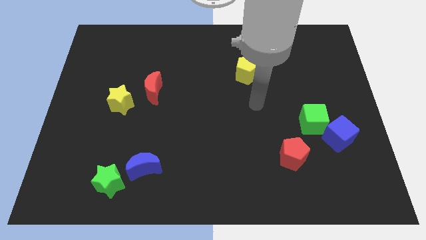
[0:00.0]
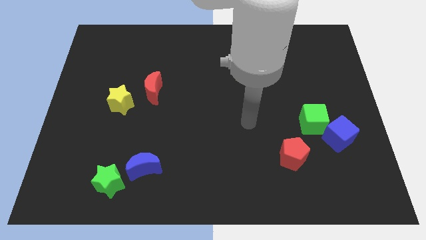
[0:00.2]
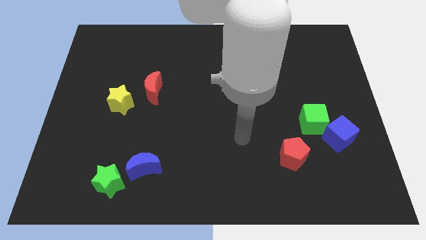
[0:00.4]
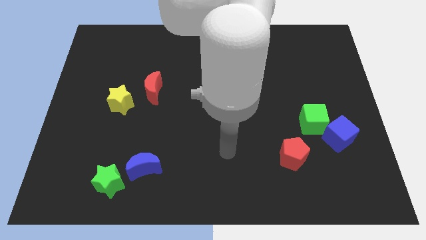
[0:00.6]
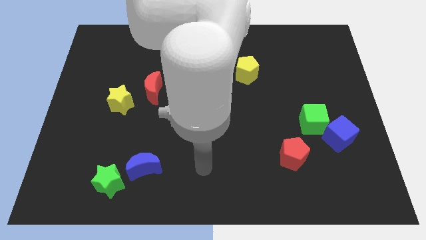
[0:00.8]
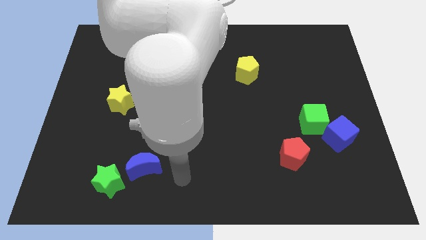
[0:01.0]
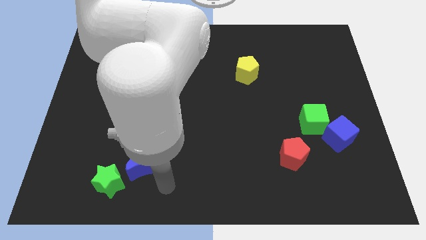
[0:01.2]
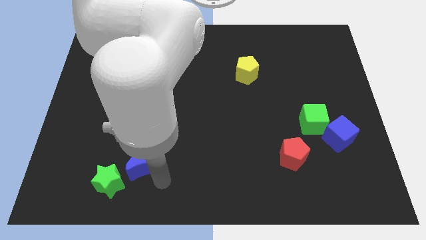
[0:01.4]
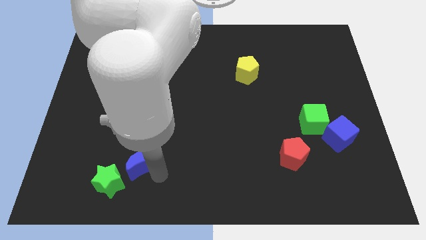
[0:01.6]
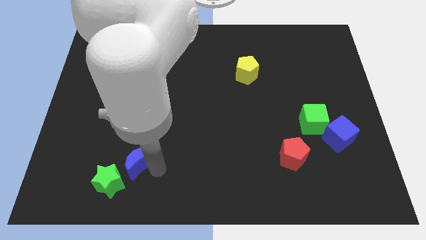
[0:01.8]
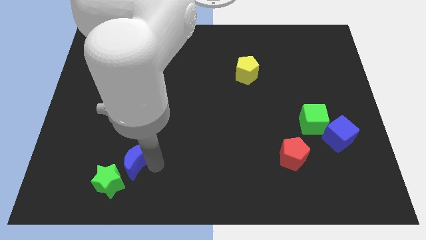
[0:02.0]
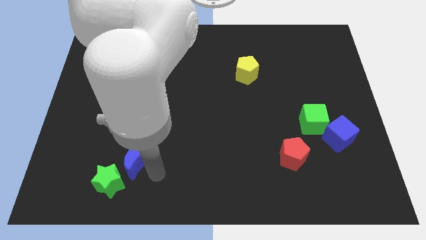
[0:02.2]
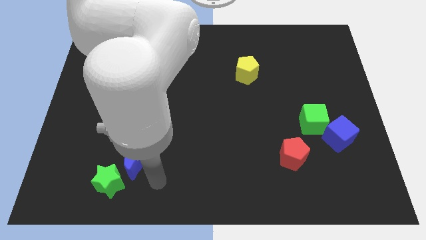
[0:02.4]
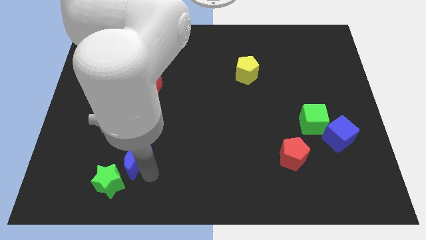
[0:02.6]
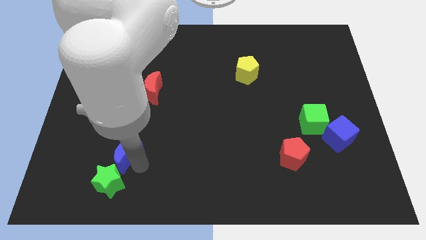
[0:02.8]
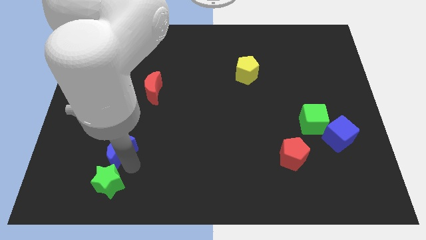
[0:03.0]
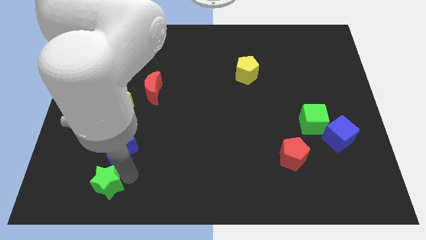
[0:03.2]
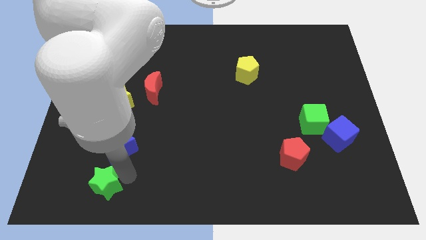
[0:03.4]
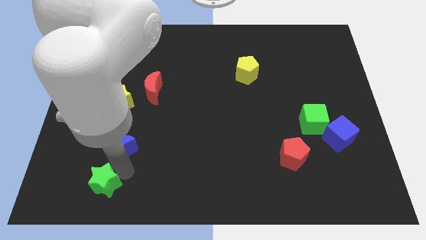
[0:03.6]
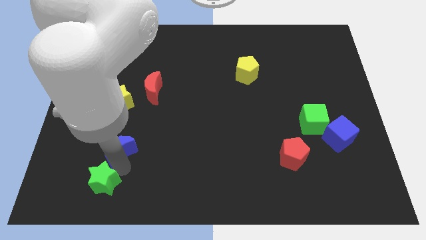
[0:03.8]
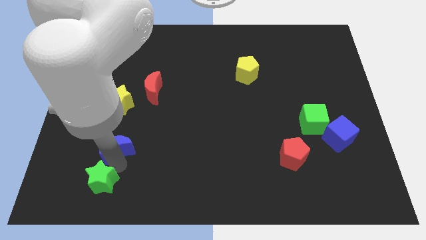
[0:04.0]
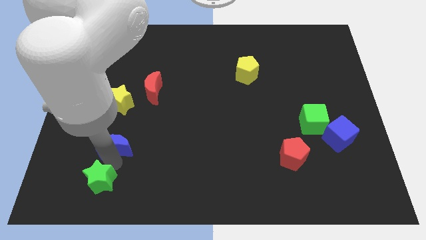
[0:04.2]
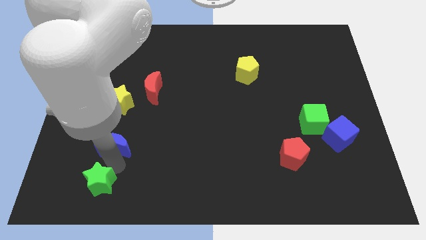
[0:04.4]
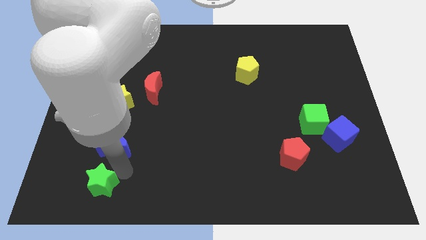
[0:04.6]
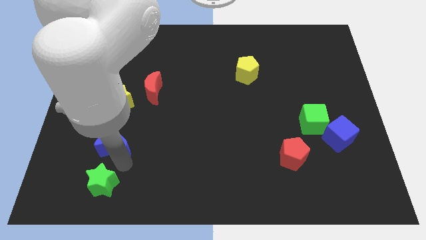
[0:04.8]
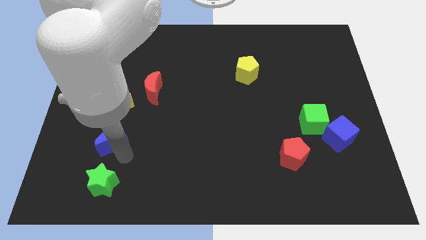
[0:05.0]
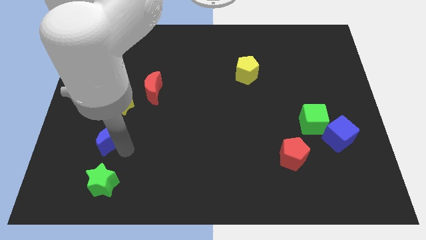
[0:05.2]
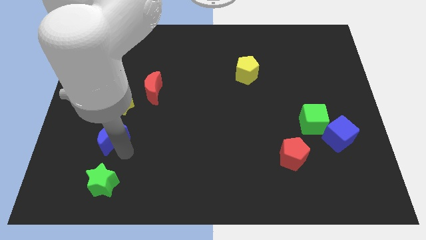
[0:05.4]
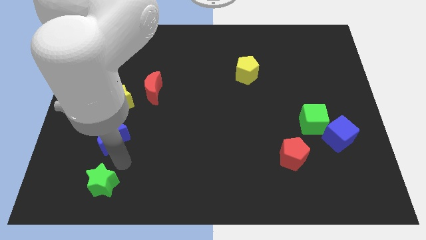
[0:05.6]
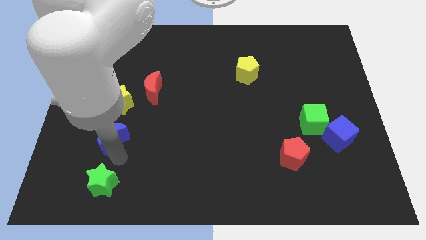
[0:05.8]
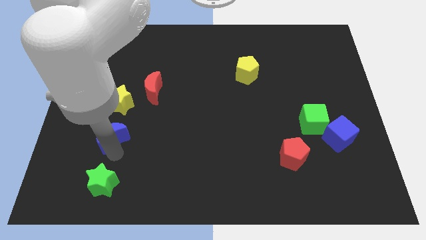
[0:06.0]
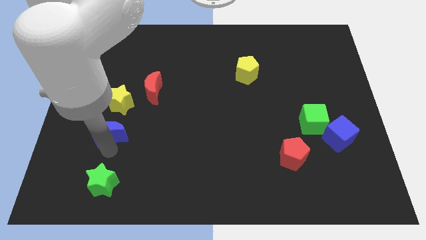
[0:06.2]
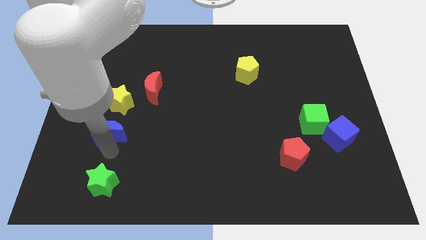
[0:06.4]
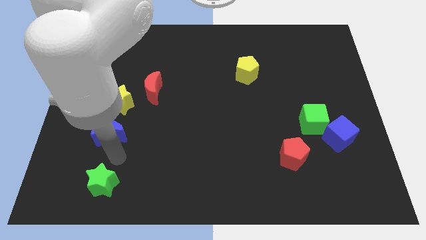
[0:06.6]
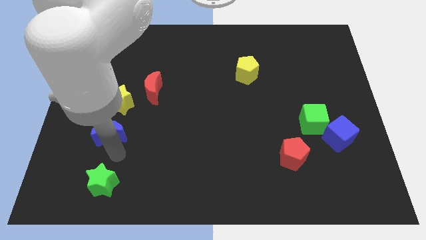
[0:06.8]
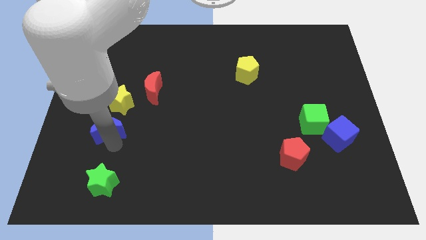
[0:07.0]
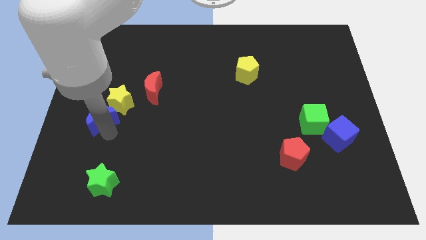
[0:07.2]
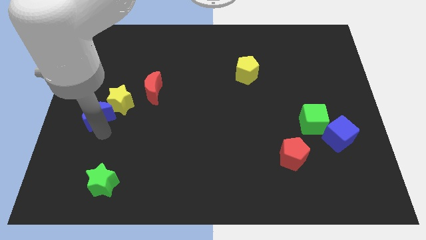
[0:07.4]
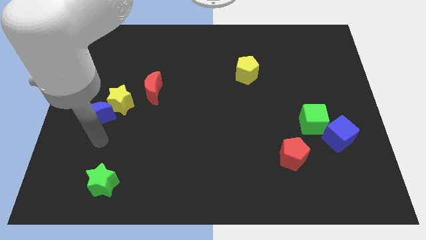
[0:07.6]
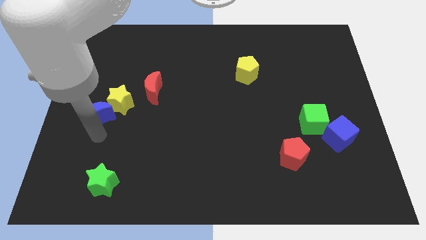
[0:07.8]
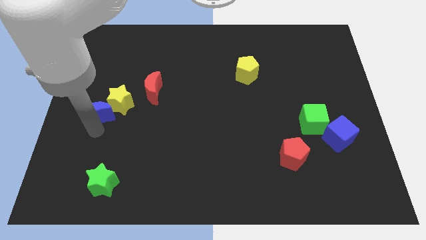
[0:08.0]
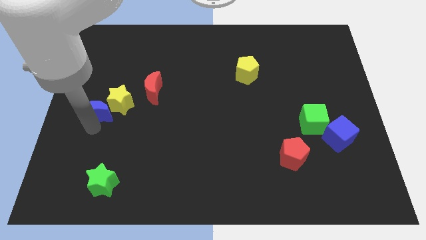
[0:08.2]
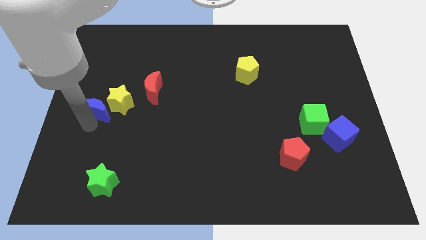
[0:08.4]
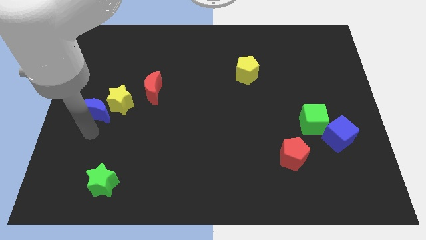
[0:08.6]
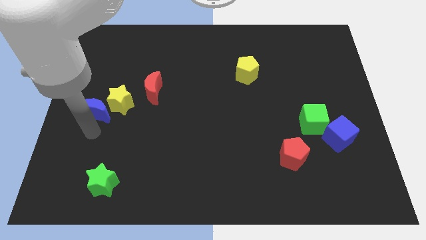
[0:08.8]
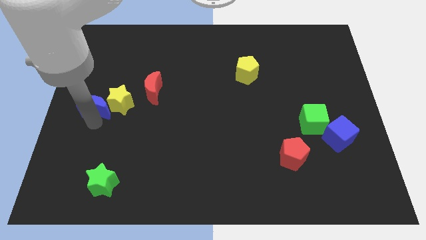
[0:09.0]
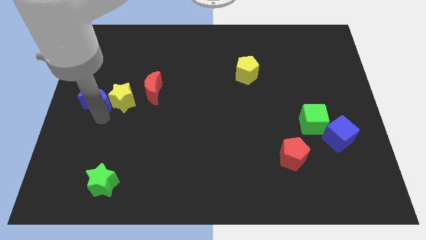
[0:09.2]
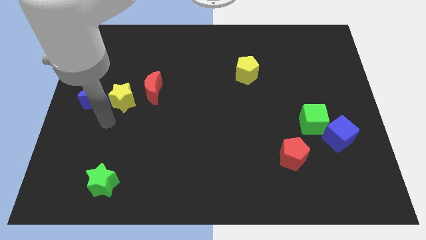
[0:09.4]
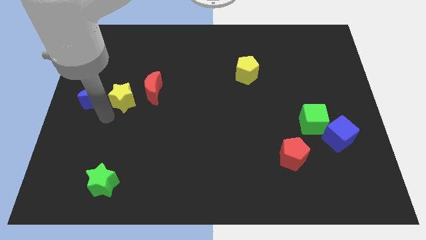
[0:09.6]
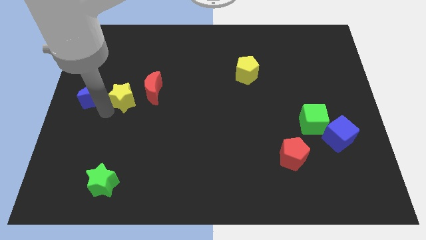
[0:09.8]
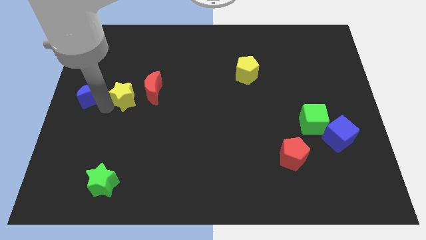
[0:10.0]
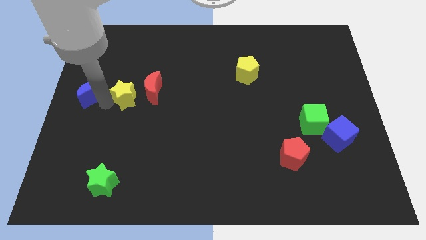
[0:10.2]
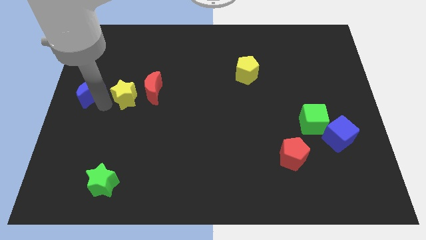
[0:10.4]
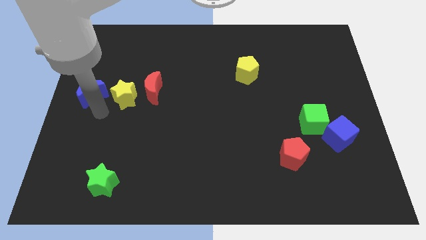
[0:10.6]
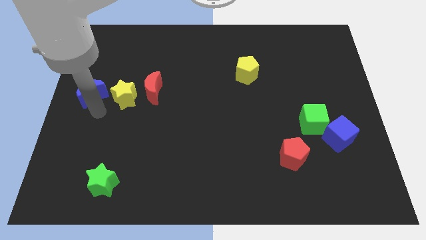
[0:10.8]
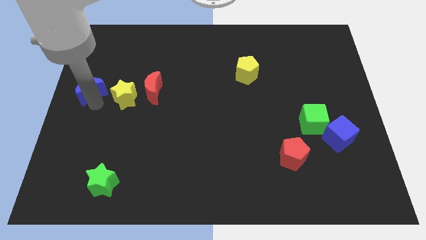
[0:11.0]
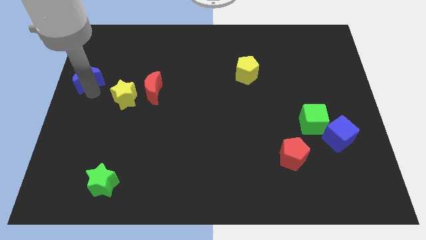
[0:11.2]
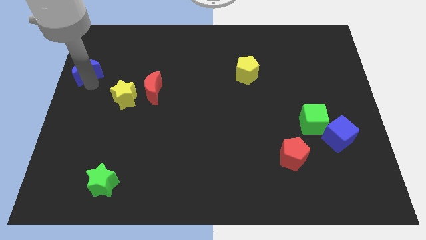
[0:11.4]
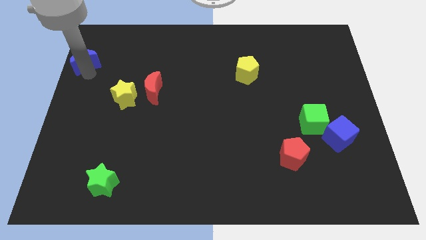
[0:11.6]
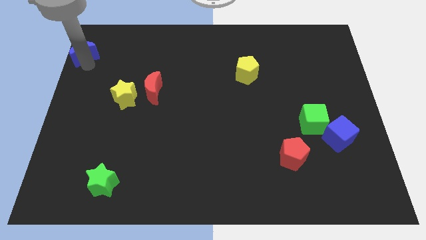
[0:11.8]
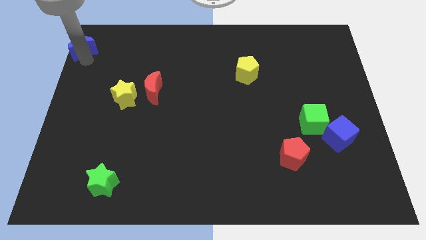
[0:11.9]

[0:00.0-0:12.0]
slide the blue moon to the top left

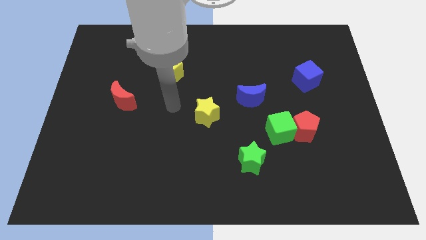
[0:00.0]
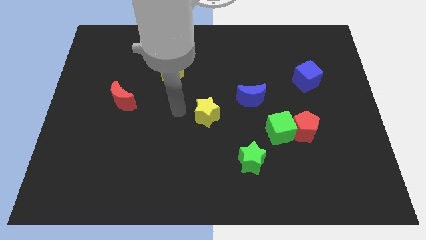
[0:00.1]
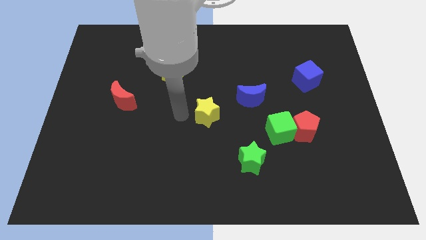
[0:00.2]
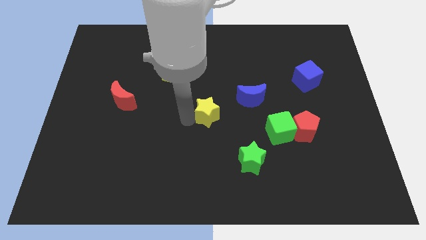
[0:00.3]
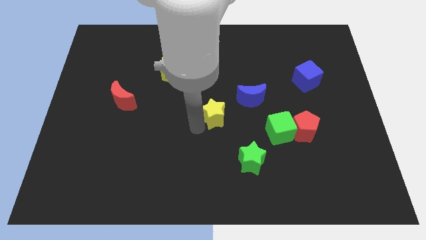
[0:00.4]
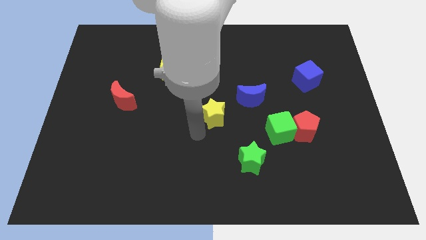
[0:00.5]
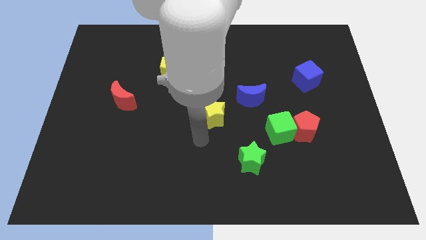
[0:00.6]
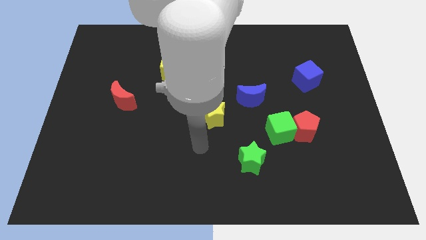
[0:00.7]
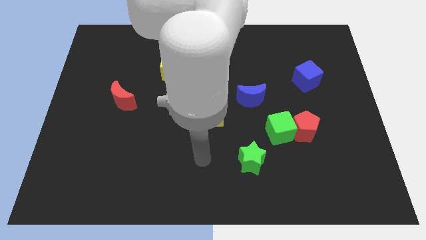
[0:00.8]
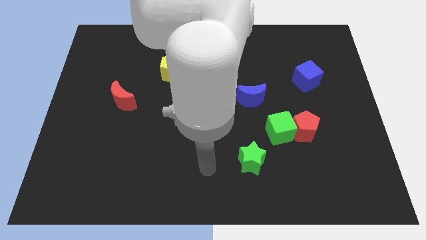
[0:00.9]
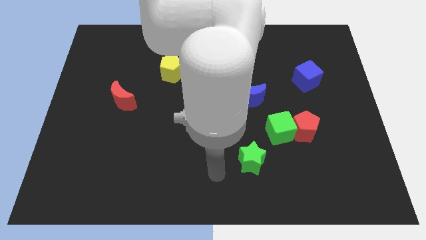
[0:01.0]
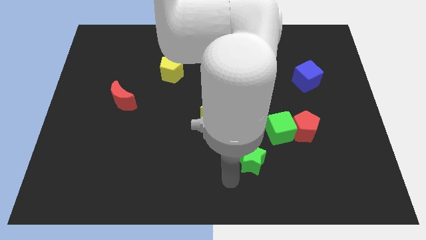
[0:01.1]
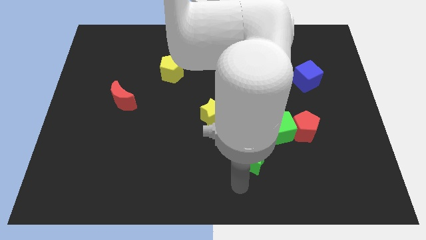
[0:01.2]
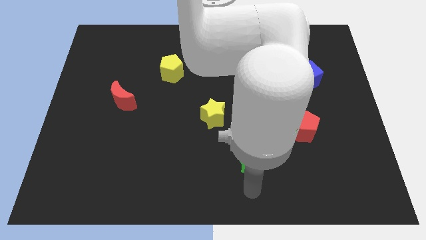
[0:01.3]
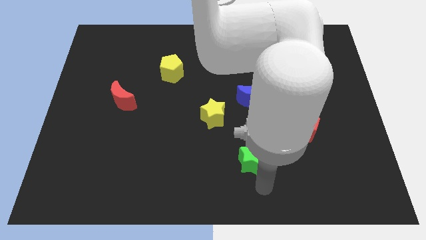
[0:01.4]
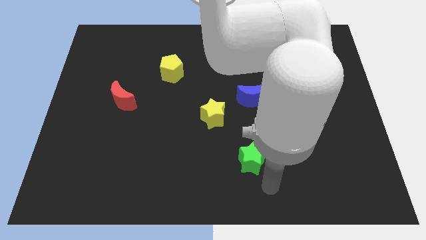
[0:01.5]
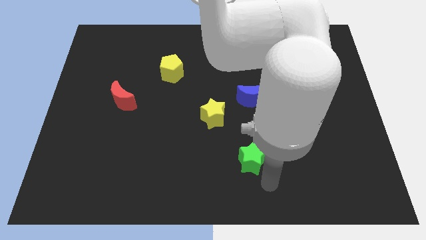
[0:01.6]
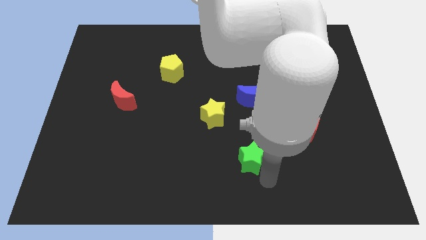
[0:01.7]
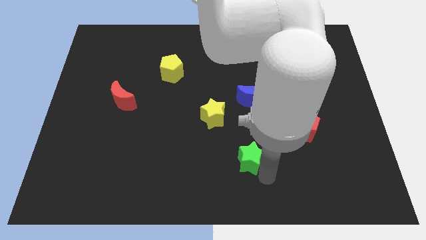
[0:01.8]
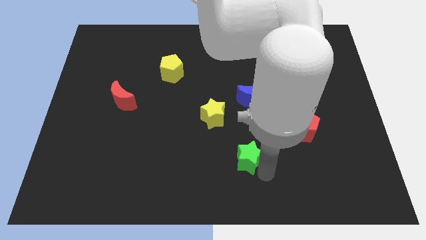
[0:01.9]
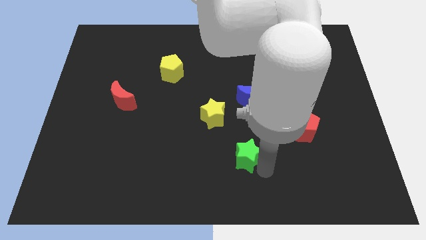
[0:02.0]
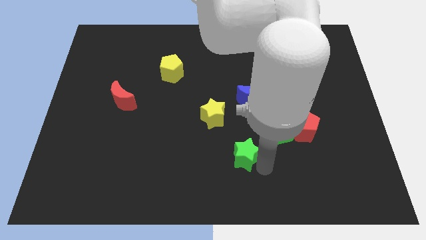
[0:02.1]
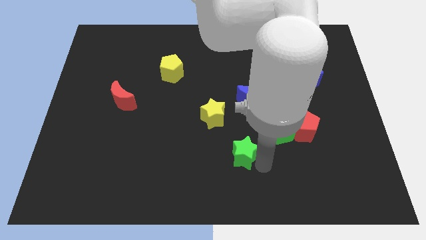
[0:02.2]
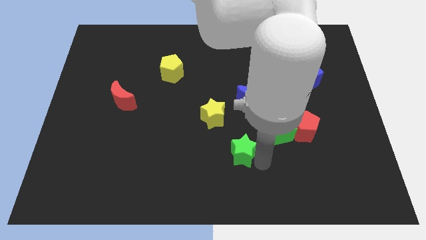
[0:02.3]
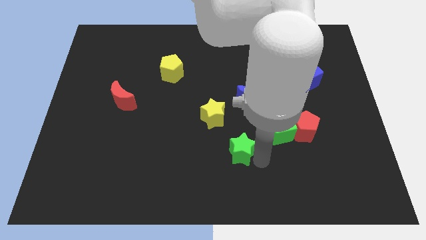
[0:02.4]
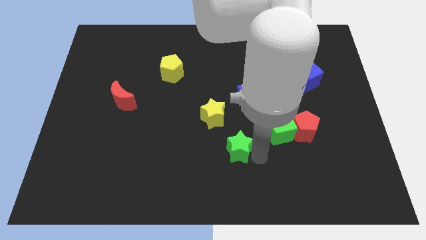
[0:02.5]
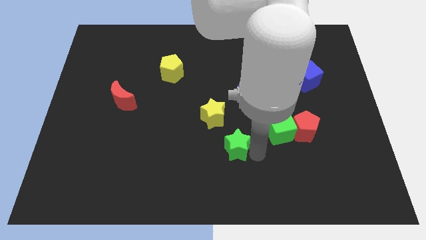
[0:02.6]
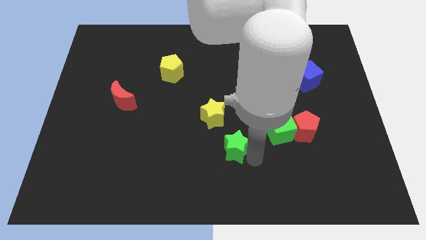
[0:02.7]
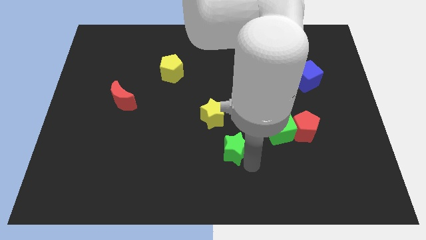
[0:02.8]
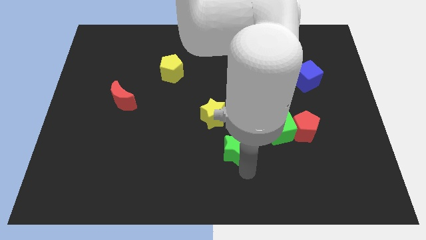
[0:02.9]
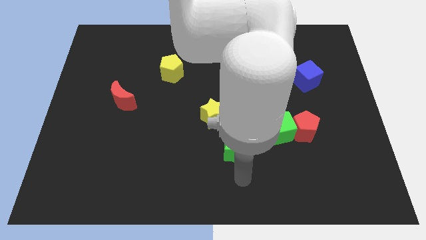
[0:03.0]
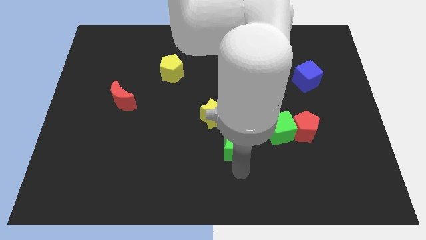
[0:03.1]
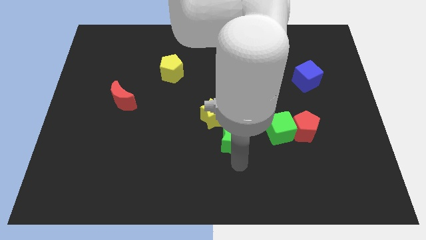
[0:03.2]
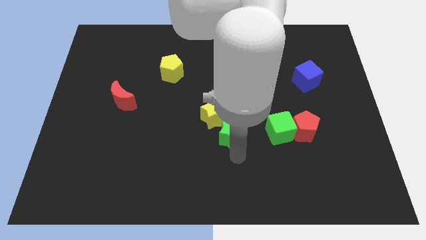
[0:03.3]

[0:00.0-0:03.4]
slide the green star to the center of the board
